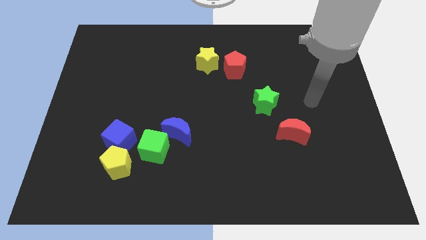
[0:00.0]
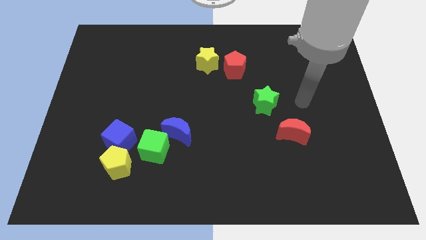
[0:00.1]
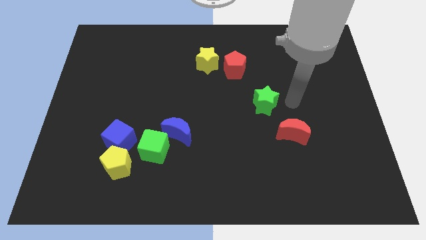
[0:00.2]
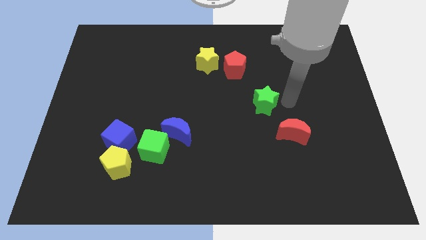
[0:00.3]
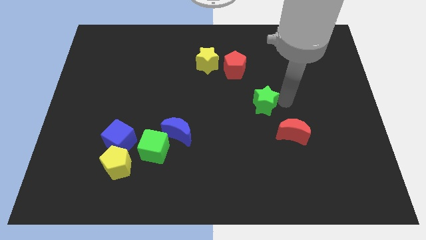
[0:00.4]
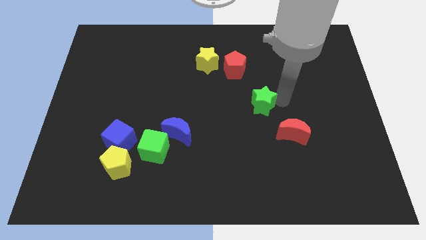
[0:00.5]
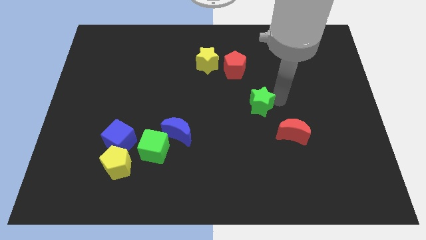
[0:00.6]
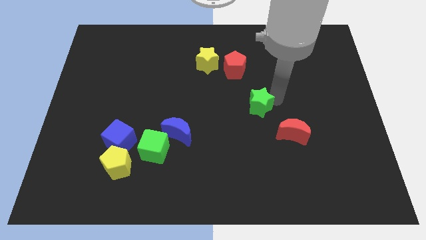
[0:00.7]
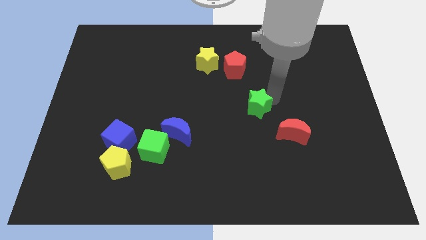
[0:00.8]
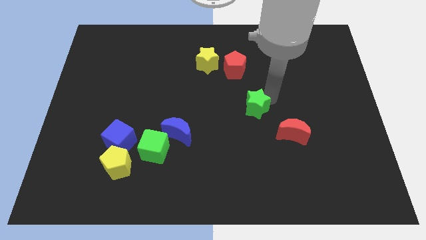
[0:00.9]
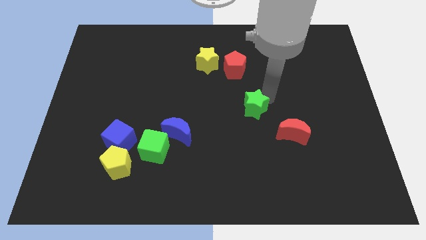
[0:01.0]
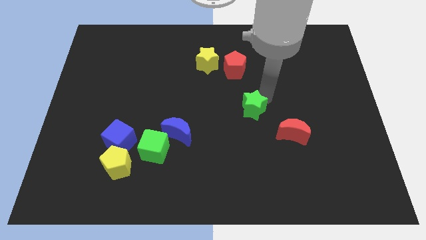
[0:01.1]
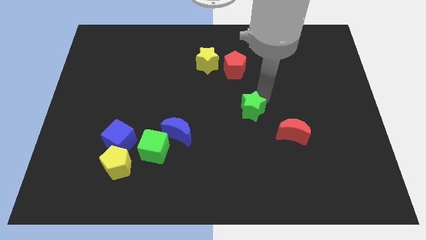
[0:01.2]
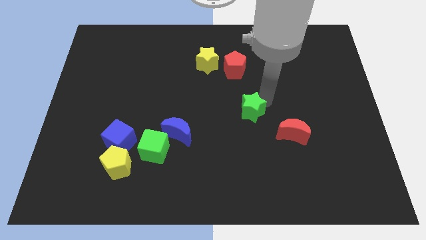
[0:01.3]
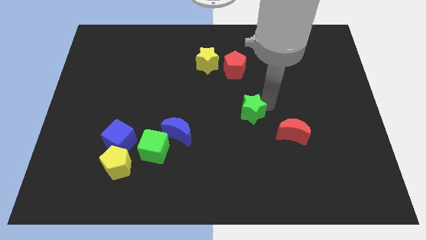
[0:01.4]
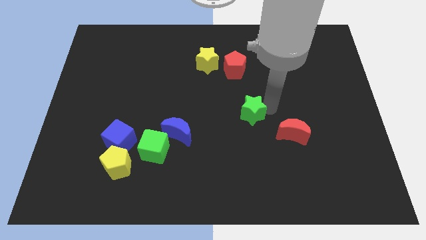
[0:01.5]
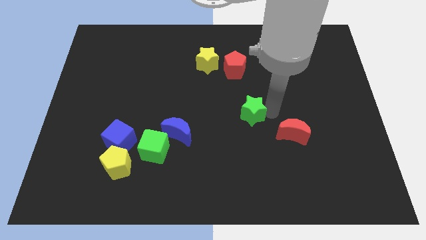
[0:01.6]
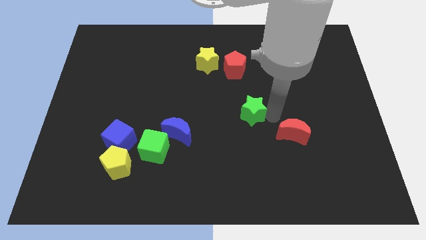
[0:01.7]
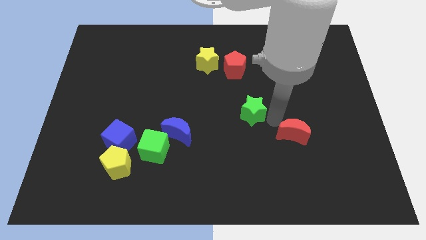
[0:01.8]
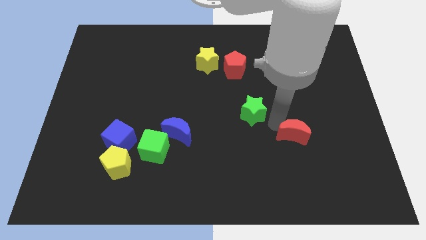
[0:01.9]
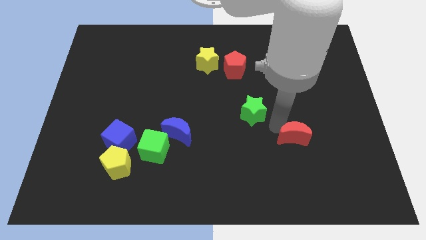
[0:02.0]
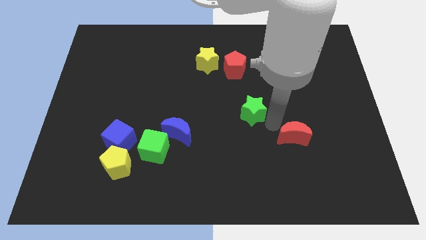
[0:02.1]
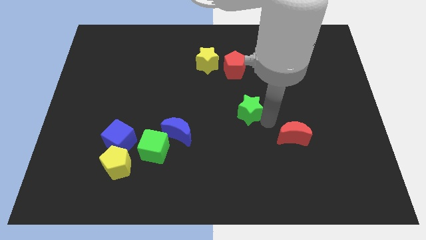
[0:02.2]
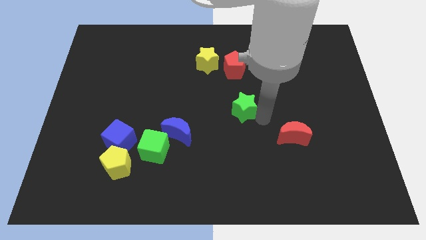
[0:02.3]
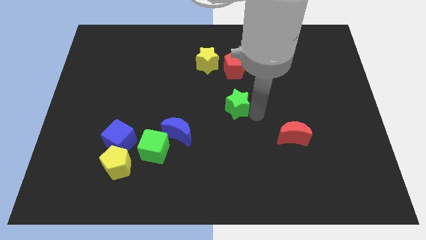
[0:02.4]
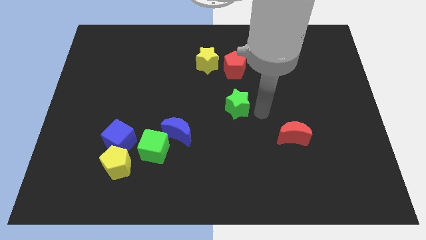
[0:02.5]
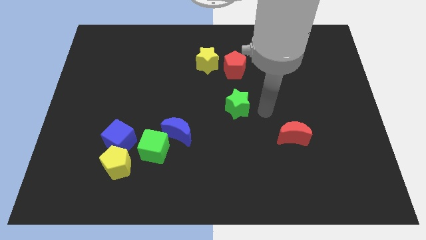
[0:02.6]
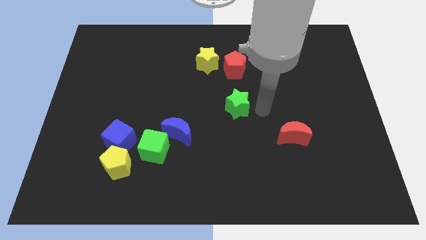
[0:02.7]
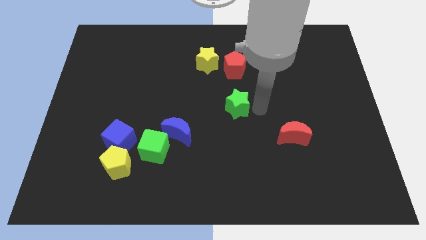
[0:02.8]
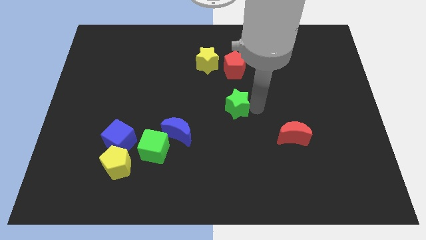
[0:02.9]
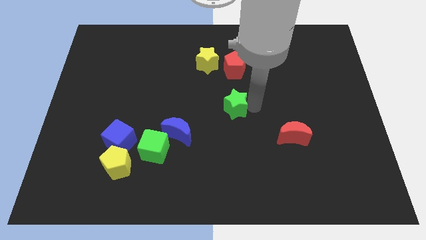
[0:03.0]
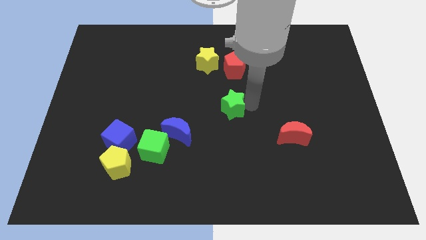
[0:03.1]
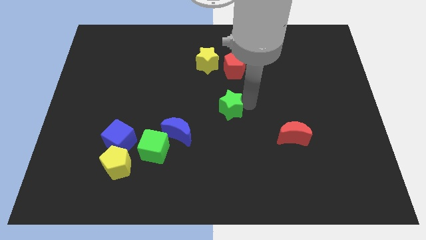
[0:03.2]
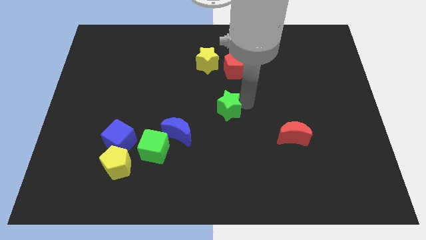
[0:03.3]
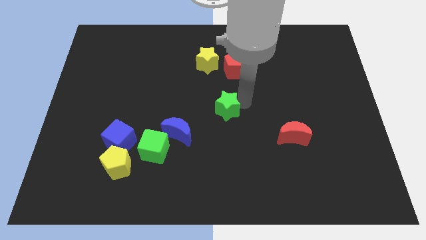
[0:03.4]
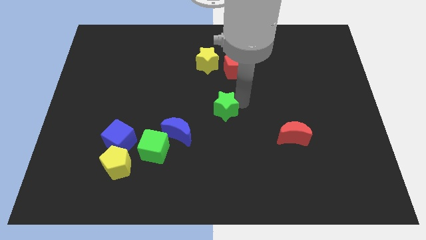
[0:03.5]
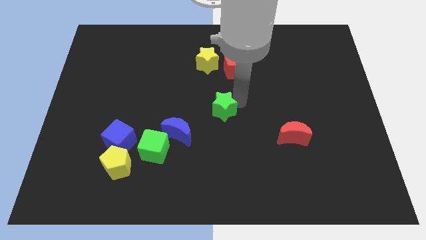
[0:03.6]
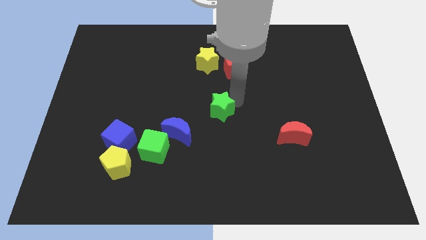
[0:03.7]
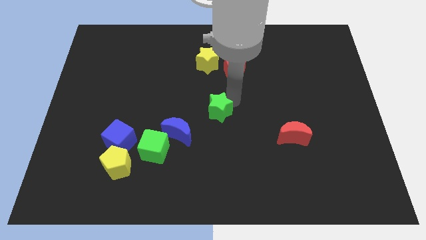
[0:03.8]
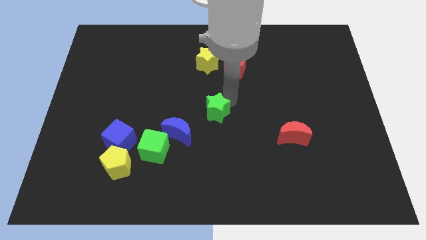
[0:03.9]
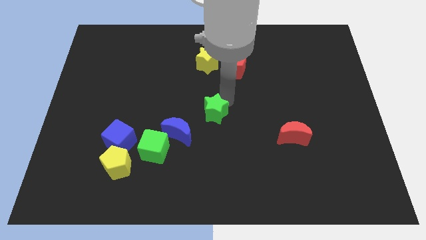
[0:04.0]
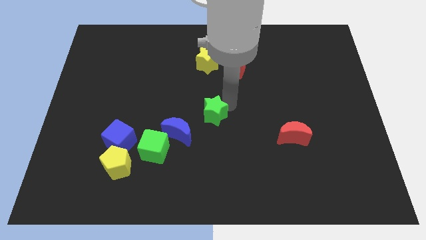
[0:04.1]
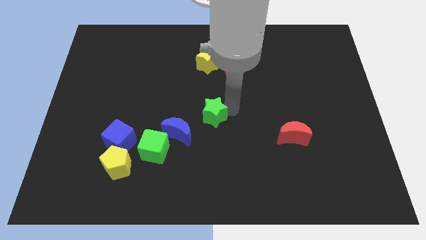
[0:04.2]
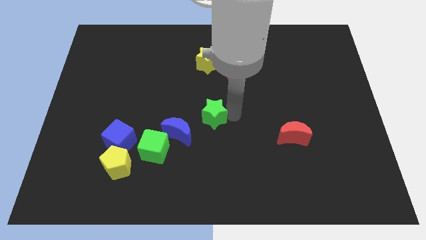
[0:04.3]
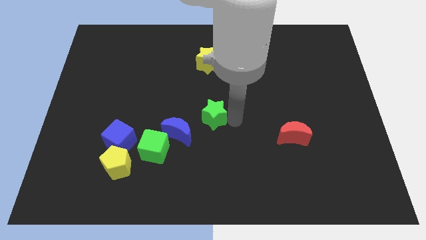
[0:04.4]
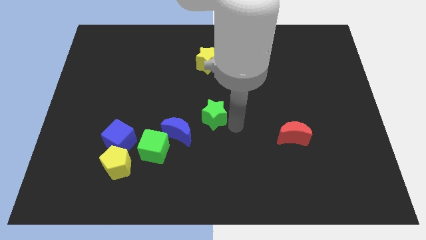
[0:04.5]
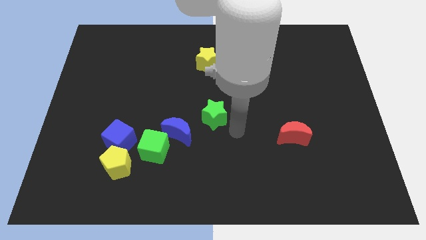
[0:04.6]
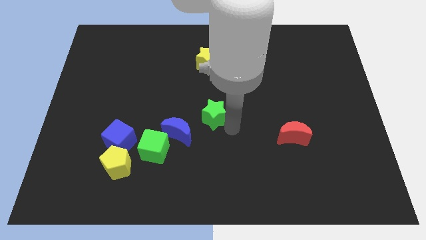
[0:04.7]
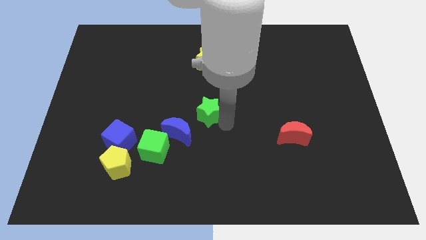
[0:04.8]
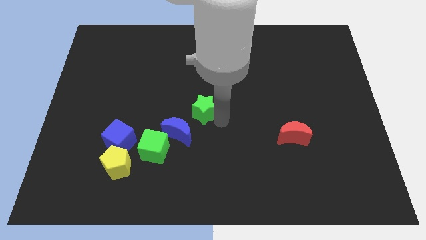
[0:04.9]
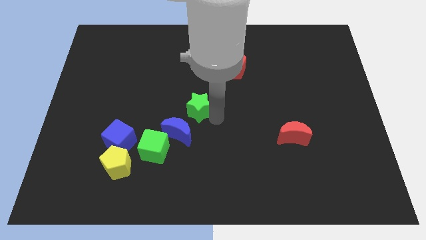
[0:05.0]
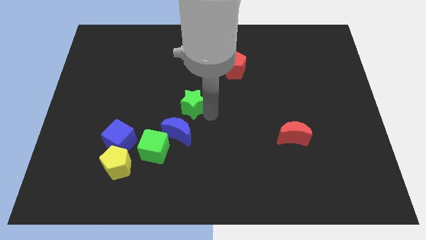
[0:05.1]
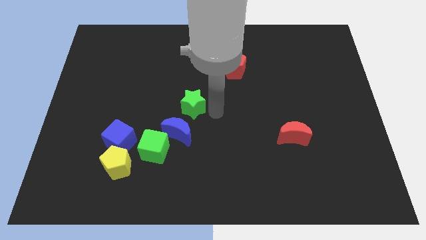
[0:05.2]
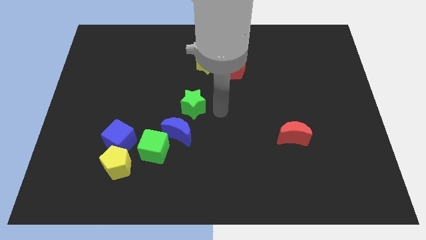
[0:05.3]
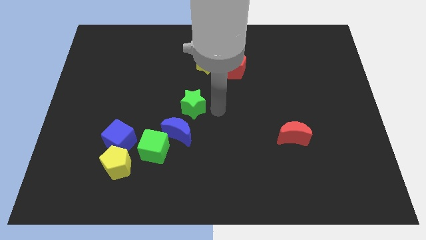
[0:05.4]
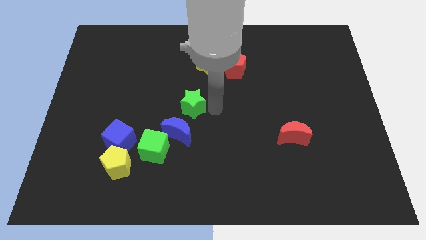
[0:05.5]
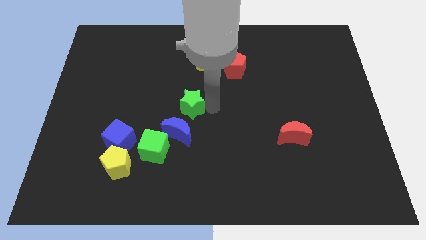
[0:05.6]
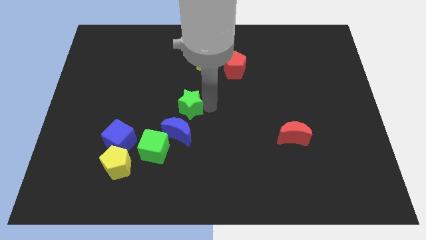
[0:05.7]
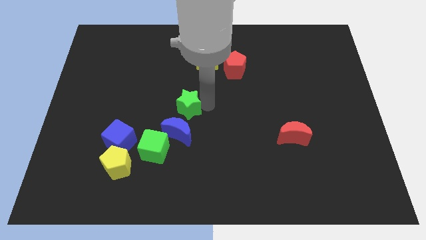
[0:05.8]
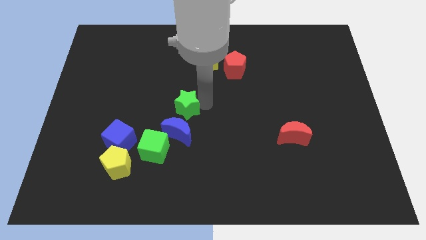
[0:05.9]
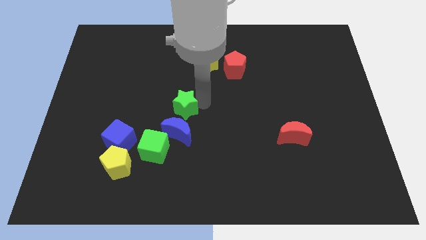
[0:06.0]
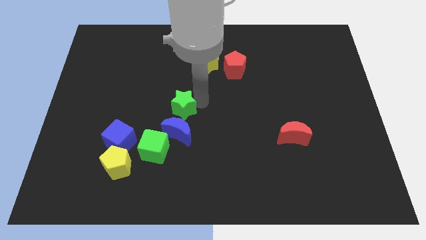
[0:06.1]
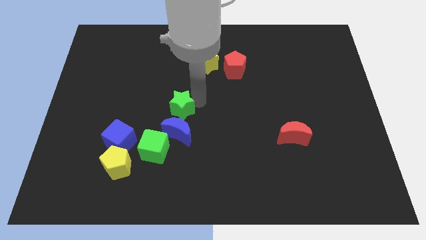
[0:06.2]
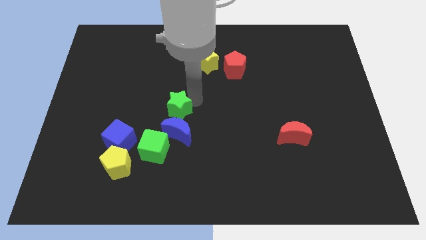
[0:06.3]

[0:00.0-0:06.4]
slide the green star to the left

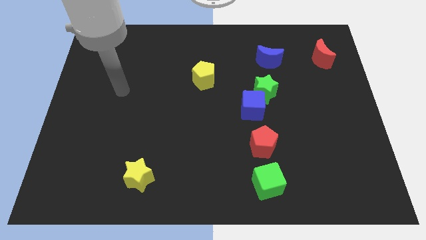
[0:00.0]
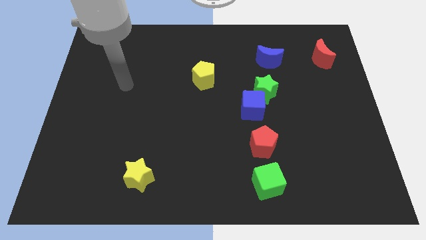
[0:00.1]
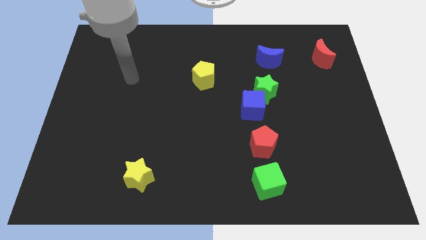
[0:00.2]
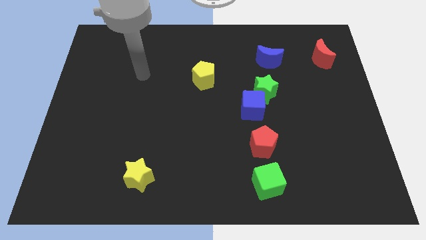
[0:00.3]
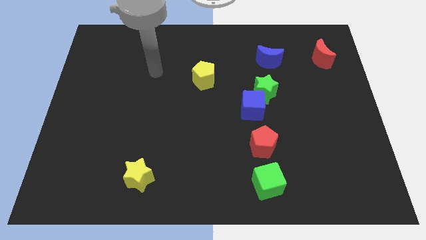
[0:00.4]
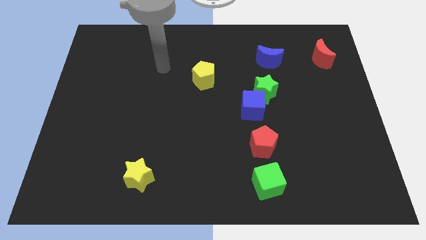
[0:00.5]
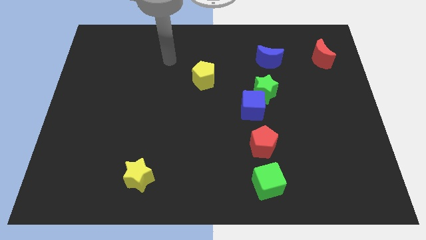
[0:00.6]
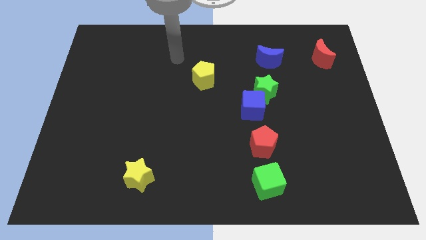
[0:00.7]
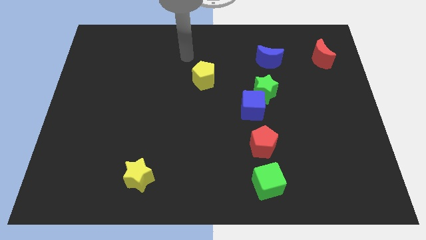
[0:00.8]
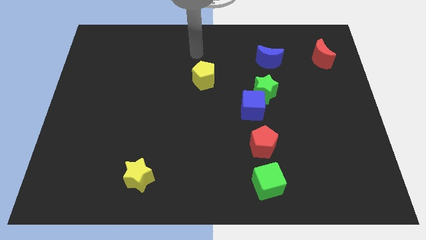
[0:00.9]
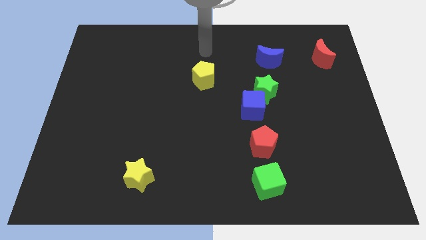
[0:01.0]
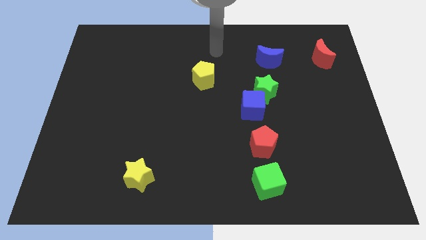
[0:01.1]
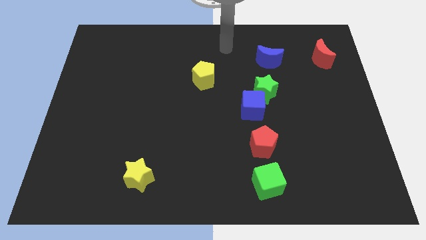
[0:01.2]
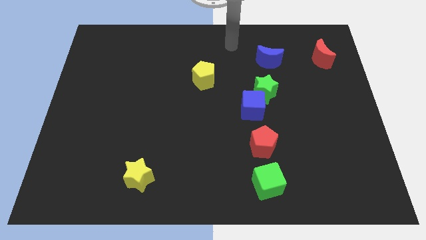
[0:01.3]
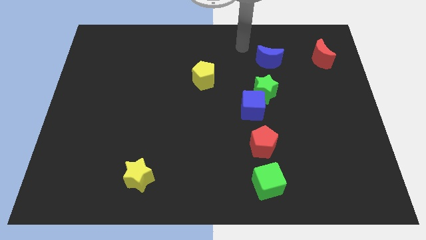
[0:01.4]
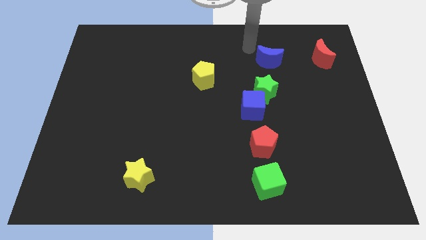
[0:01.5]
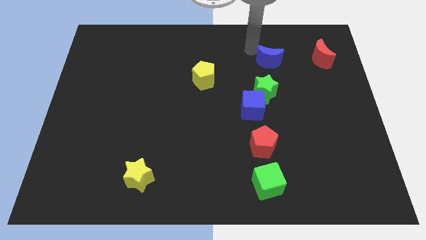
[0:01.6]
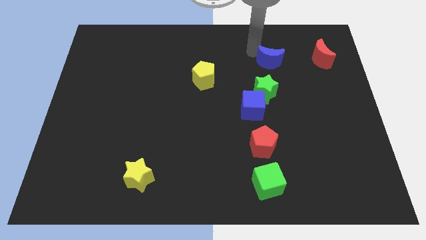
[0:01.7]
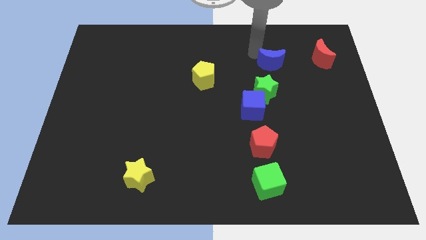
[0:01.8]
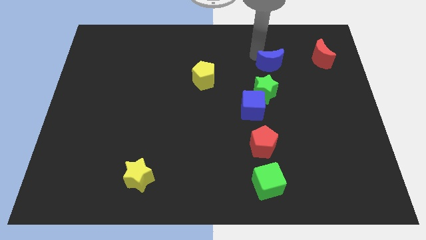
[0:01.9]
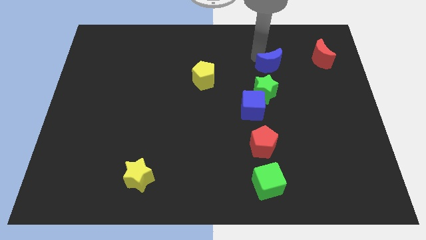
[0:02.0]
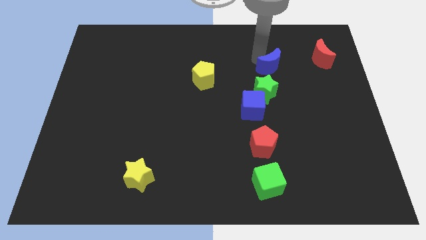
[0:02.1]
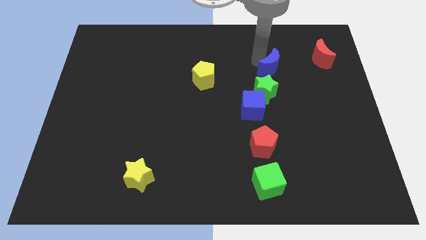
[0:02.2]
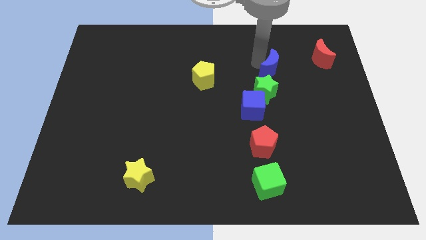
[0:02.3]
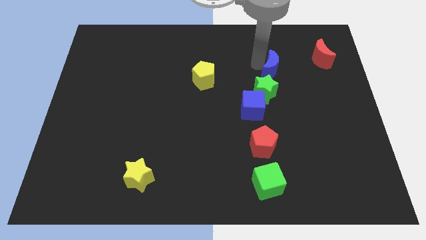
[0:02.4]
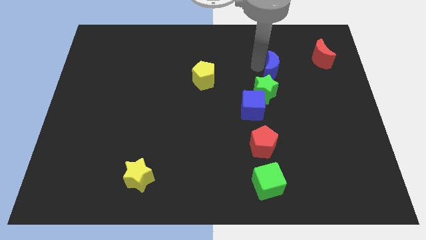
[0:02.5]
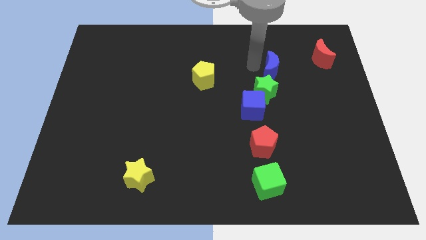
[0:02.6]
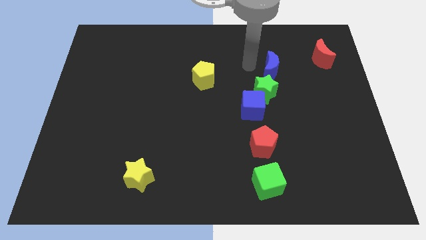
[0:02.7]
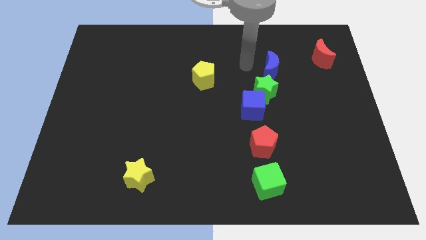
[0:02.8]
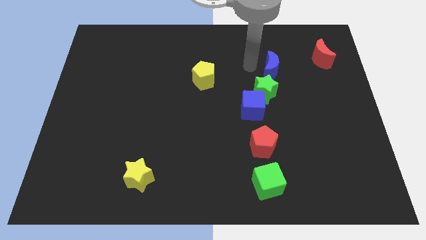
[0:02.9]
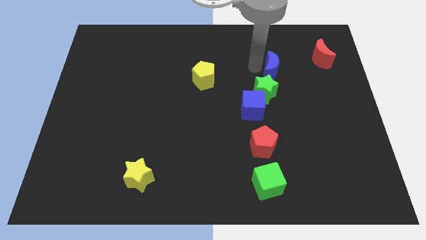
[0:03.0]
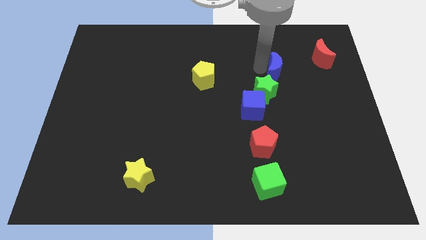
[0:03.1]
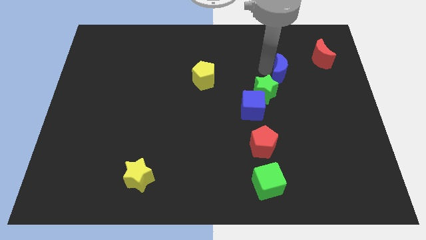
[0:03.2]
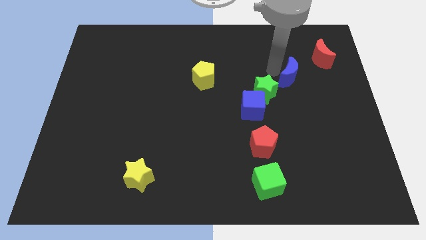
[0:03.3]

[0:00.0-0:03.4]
move the blue moon slightly downwards and right
